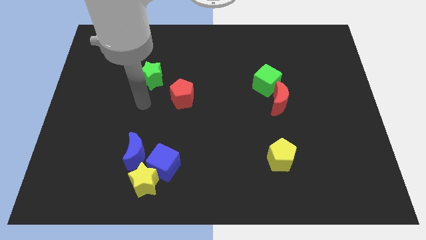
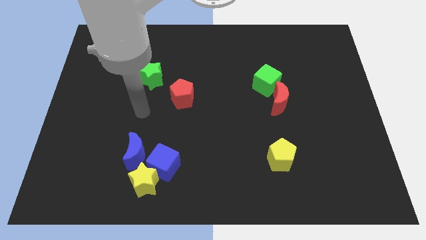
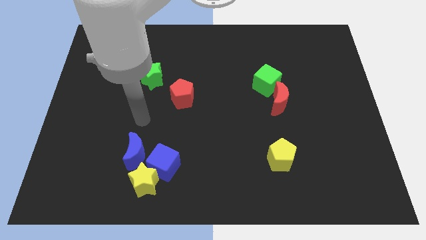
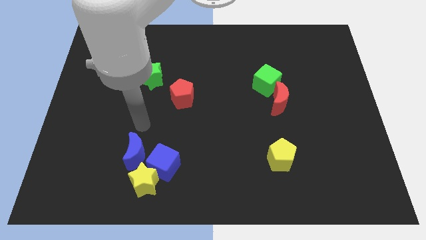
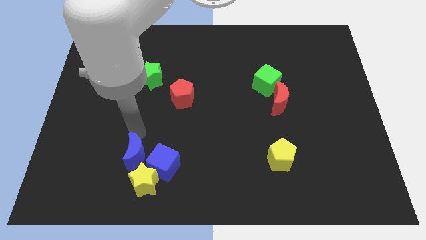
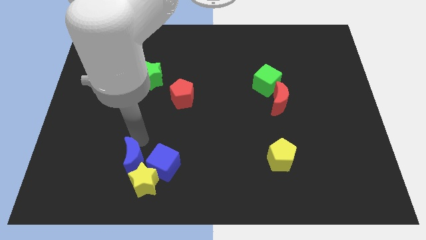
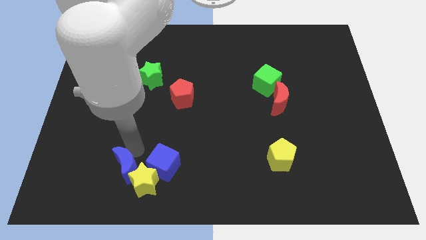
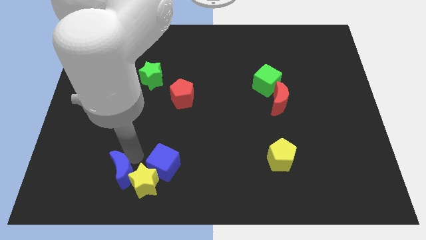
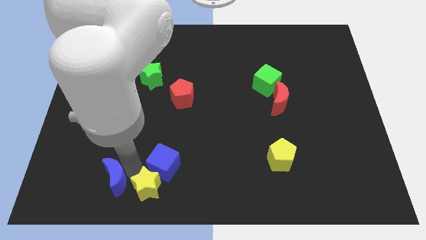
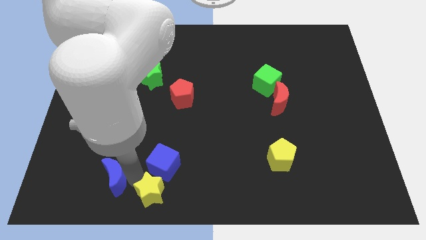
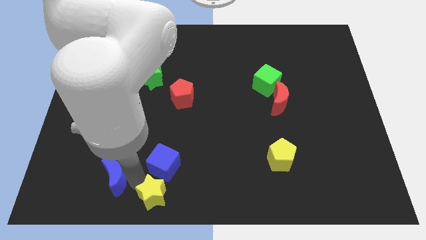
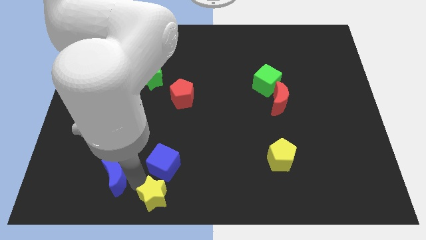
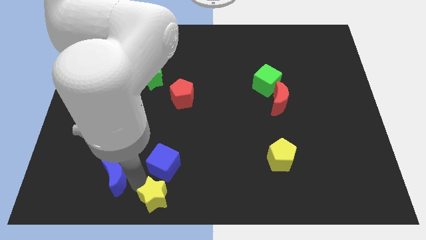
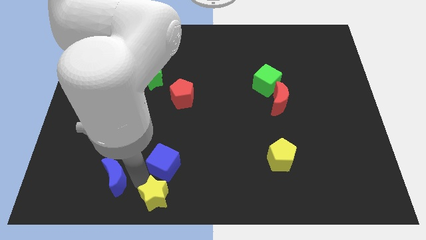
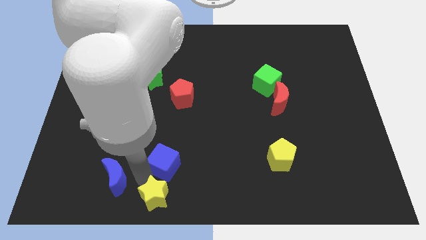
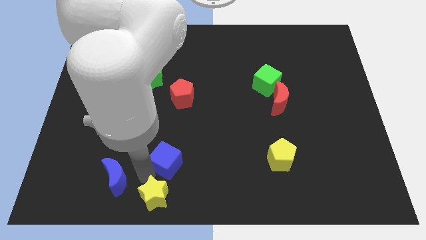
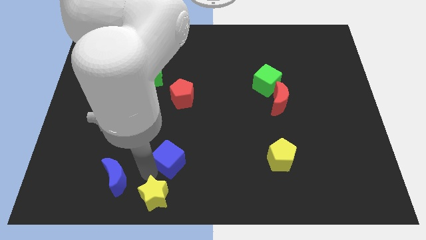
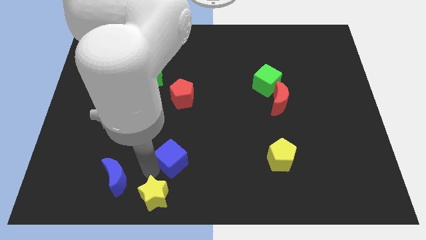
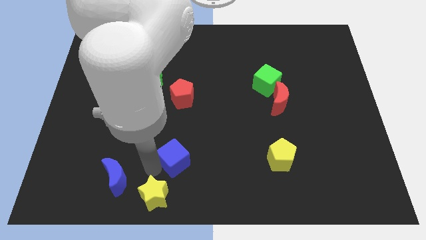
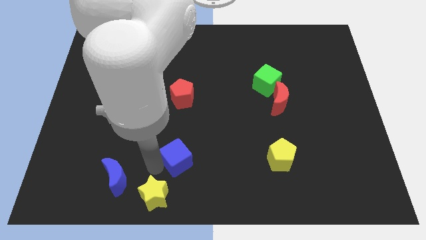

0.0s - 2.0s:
pull the blue cube apart from the yellow star and blue moon

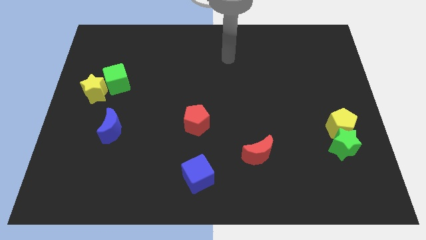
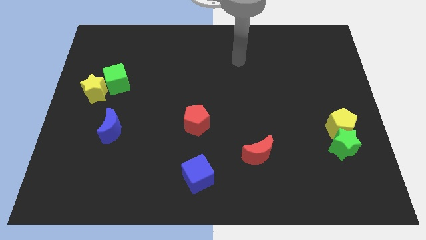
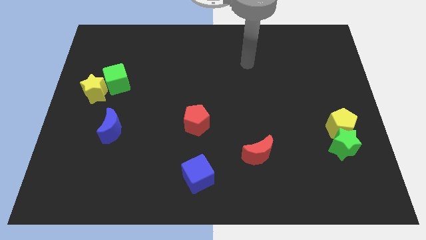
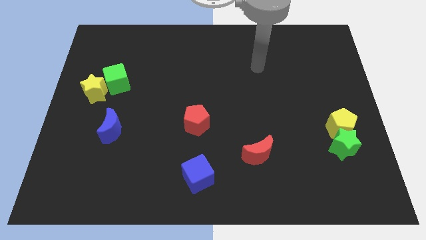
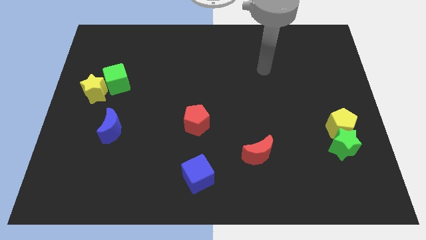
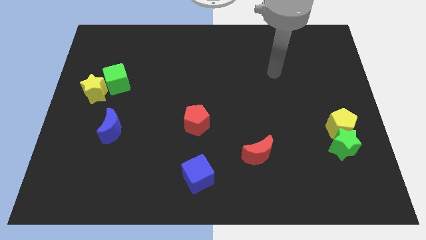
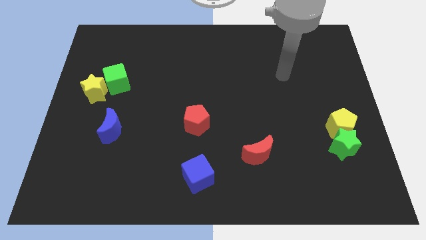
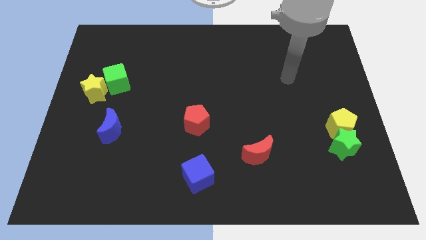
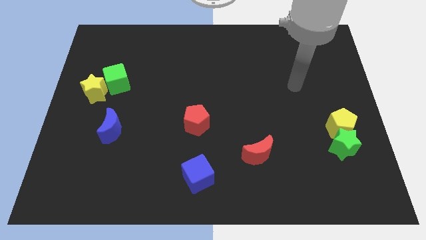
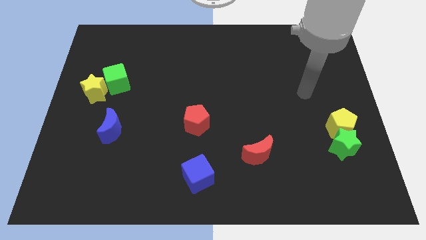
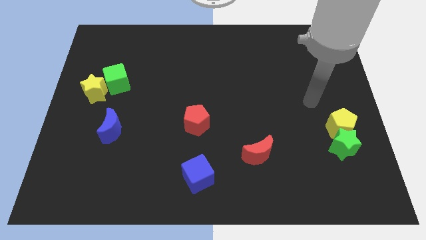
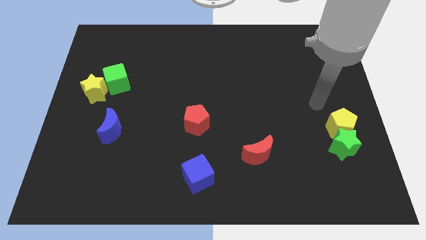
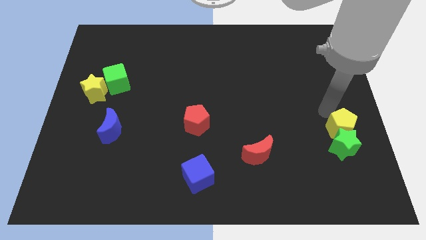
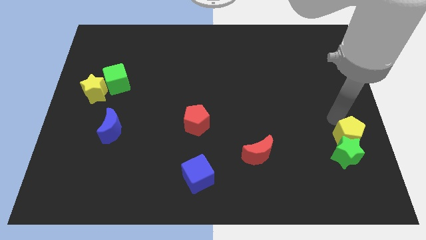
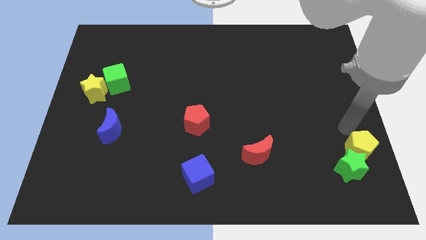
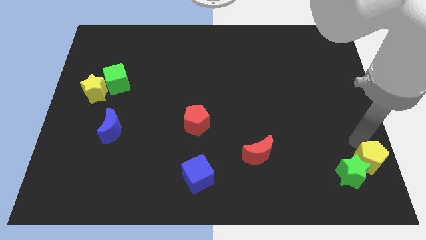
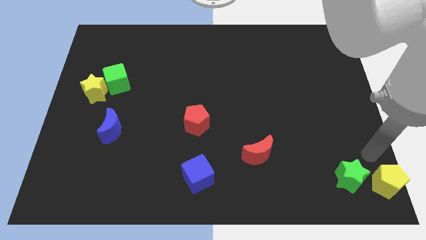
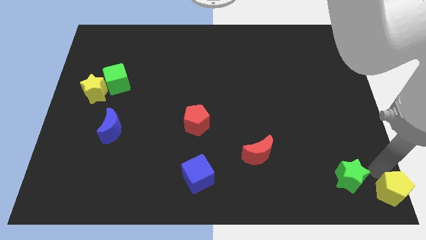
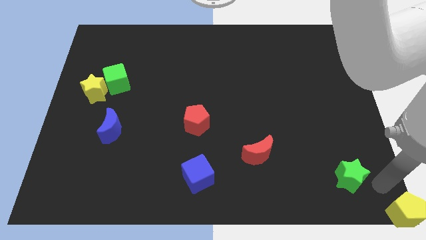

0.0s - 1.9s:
move the green star away from the yellow pentagon

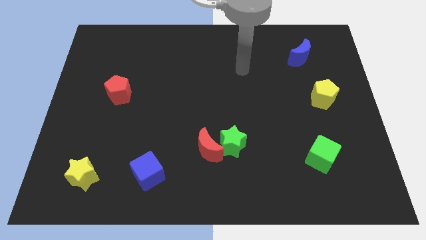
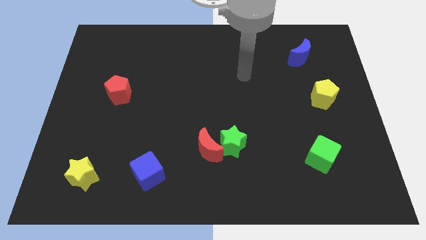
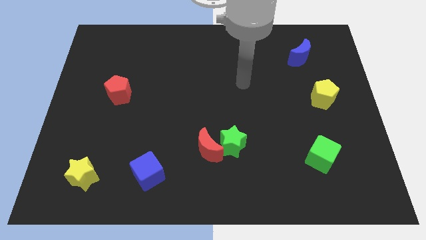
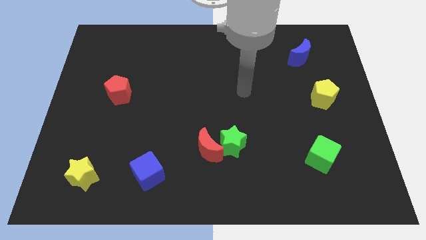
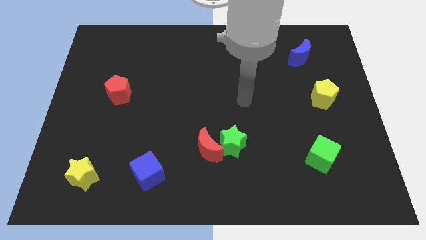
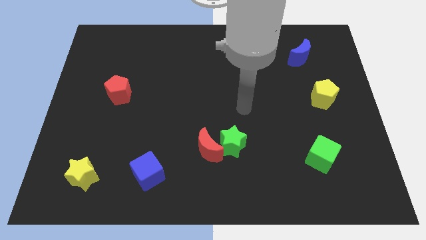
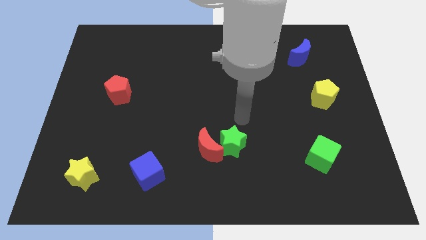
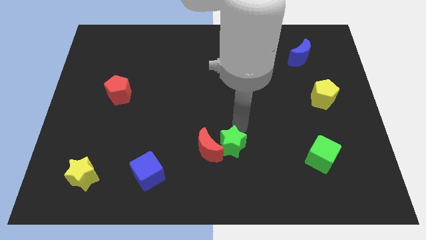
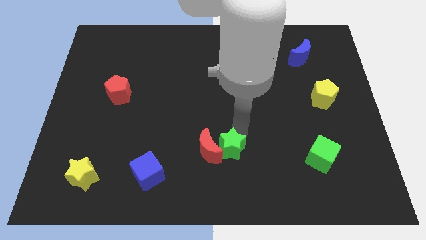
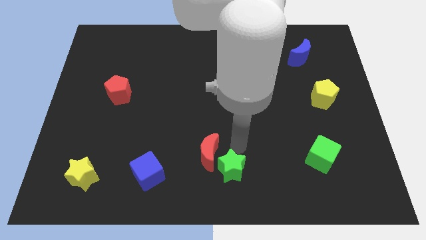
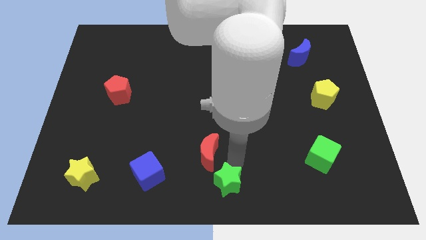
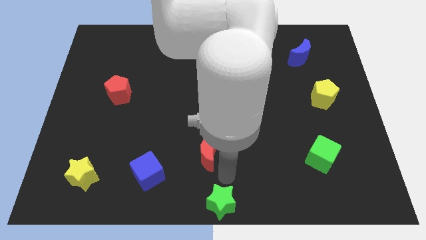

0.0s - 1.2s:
pull the red moon apart from the green star

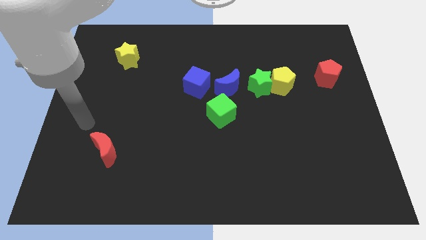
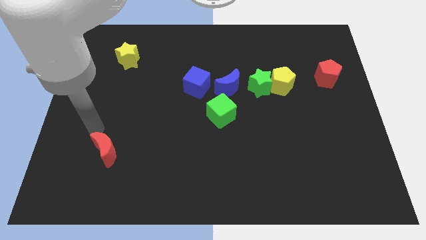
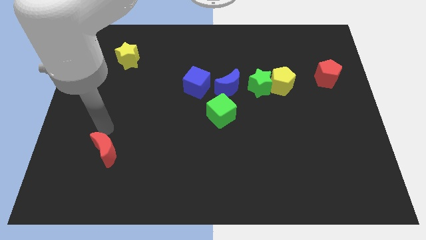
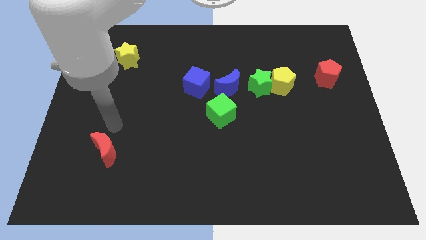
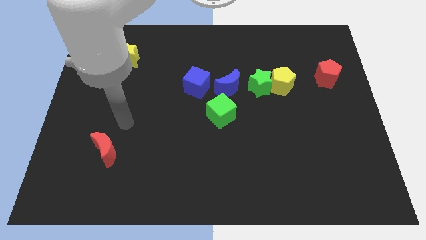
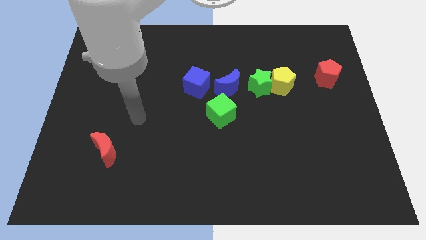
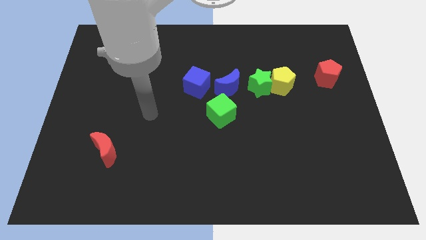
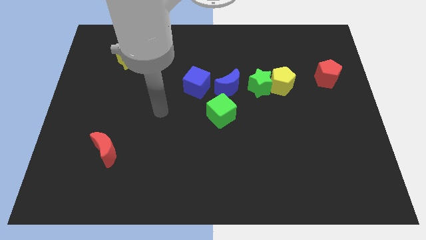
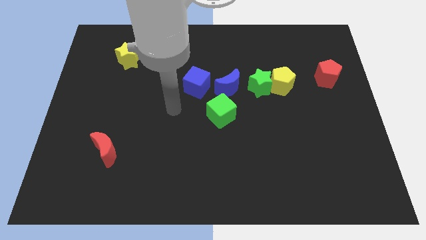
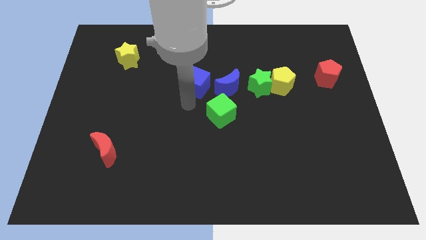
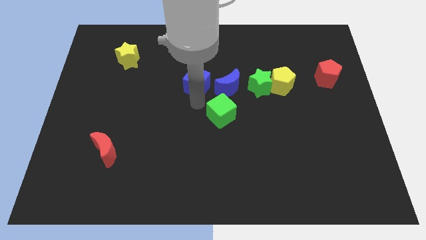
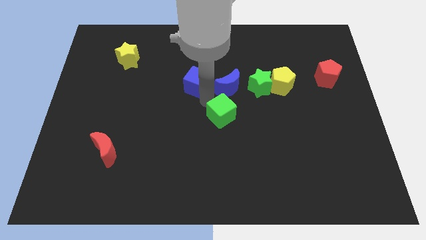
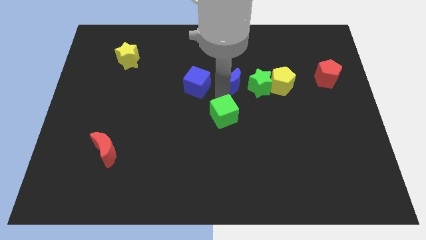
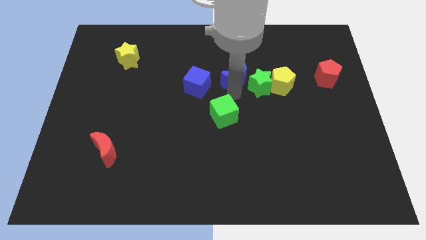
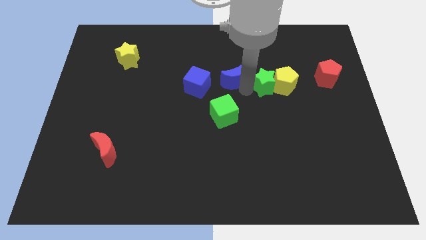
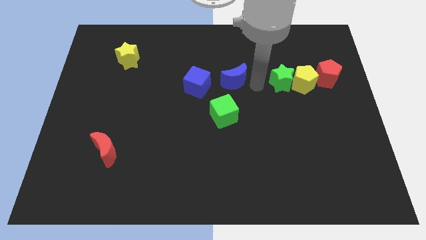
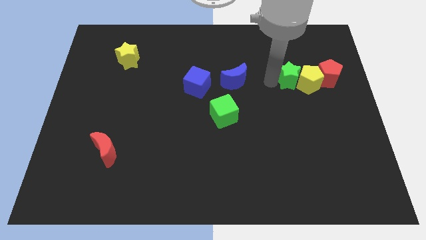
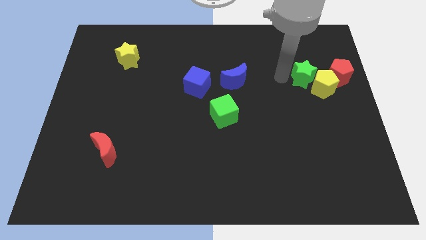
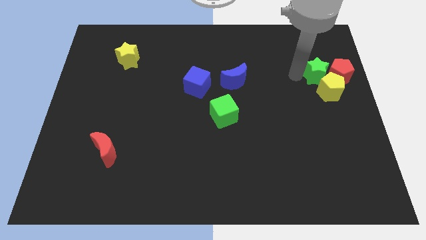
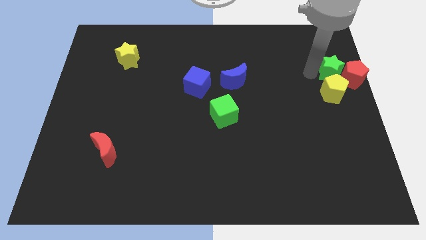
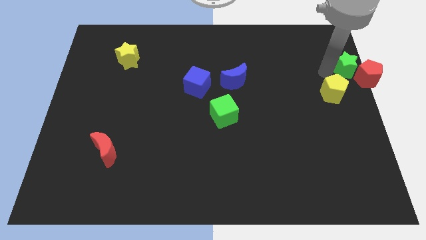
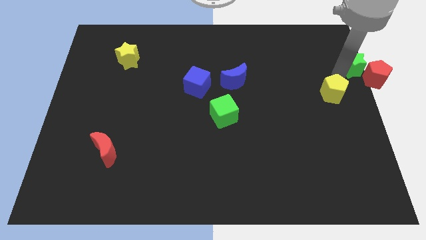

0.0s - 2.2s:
pull the yellow pentagon apart from the green star

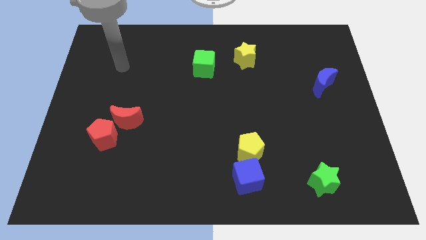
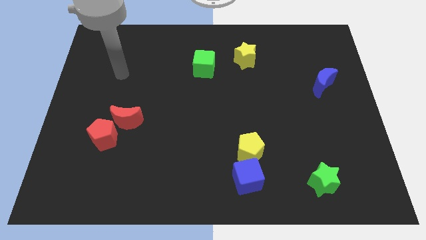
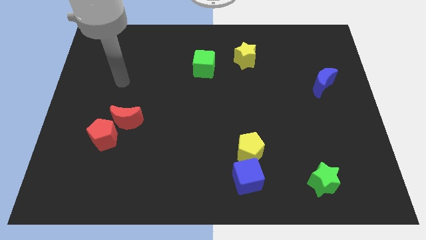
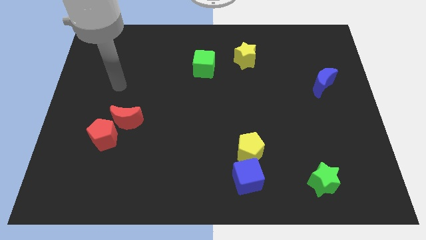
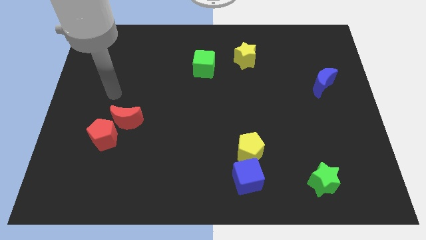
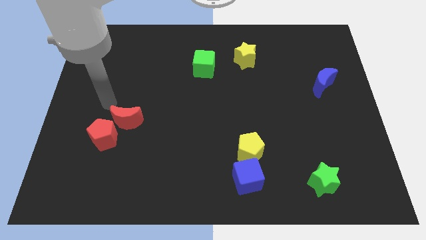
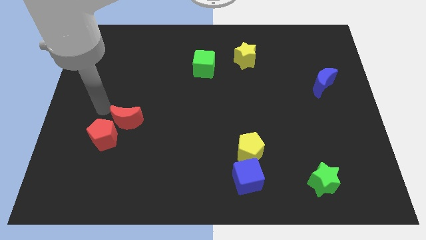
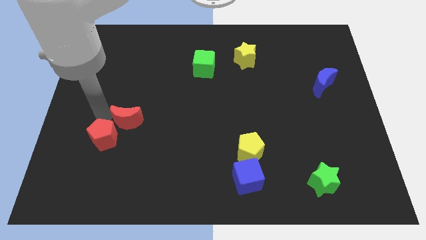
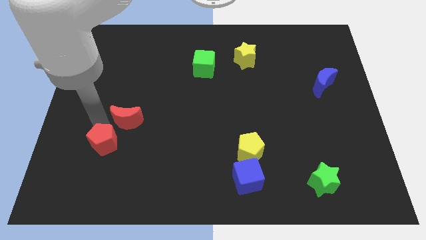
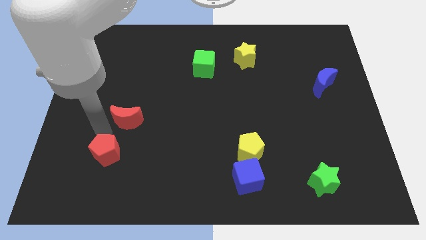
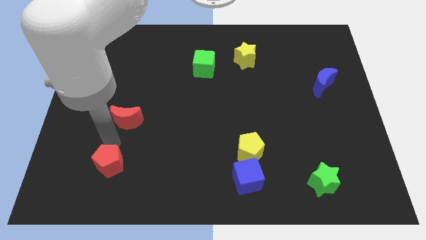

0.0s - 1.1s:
separate the red moon from the red pentagon

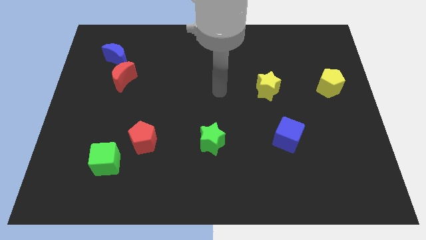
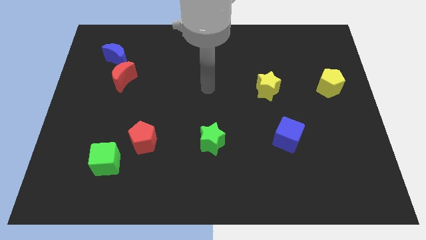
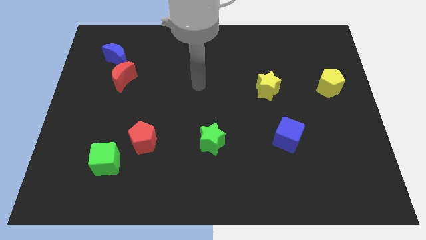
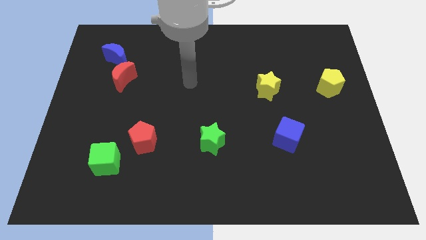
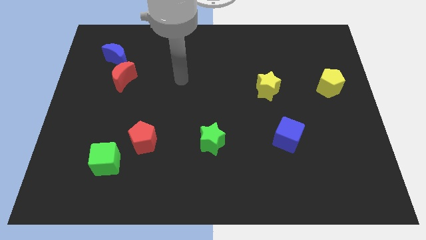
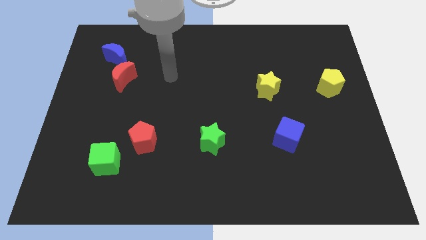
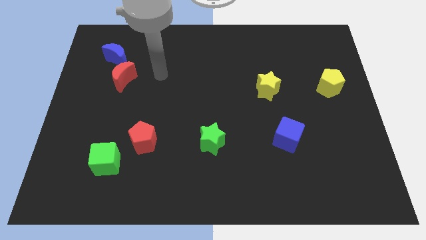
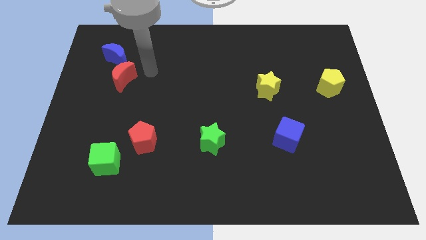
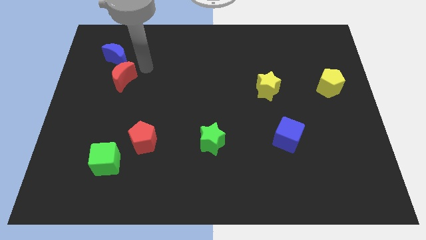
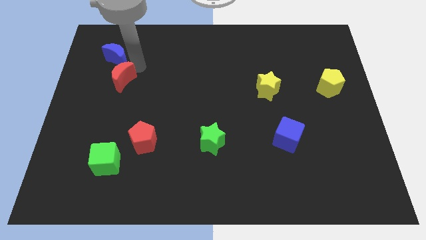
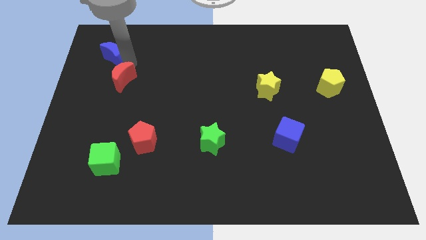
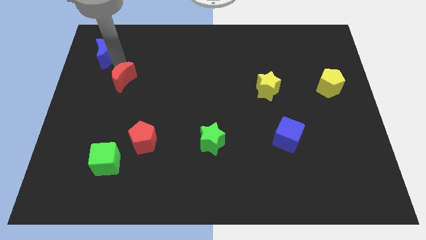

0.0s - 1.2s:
separate the red moon from the blue moon
